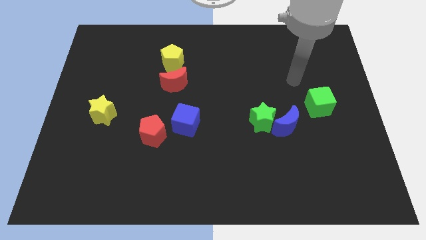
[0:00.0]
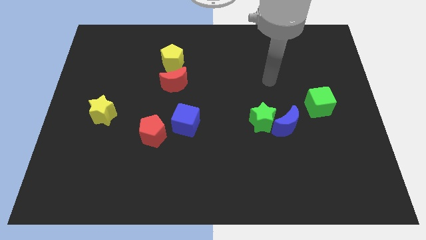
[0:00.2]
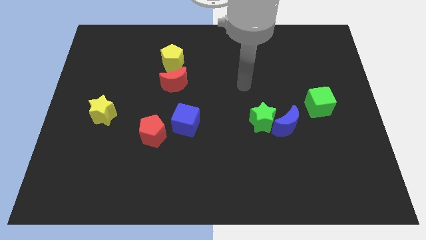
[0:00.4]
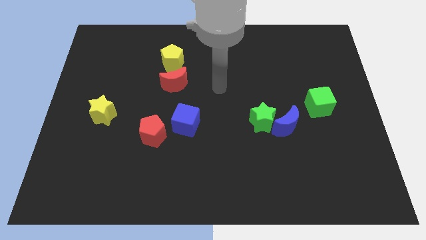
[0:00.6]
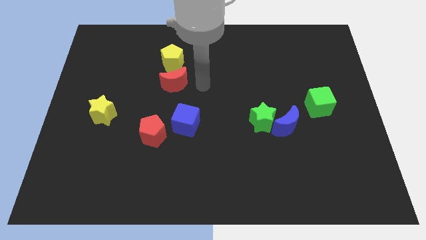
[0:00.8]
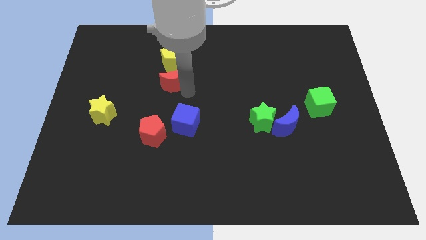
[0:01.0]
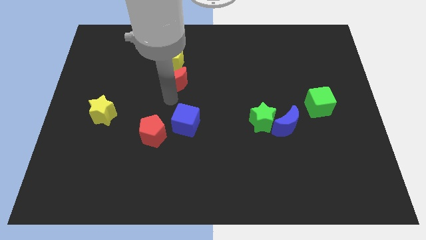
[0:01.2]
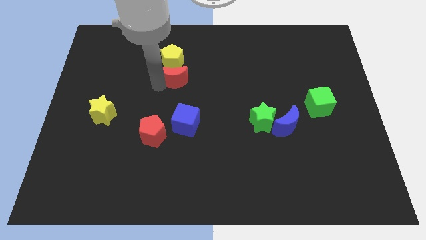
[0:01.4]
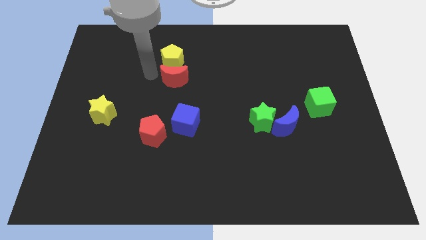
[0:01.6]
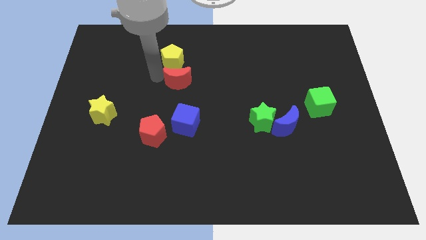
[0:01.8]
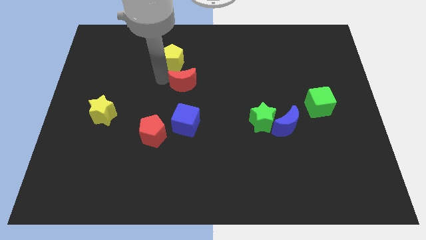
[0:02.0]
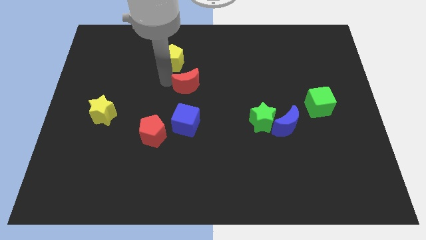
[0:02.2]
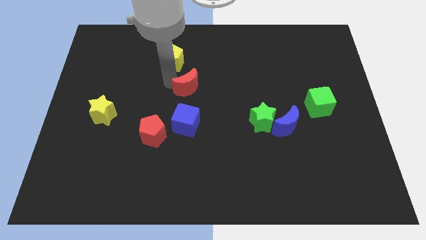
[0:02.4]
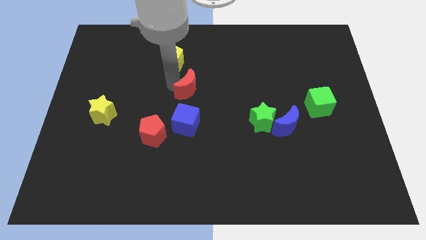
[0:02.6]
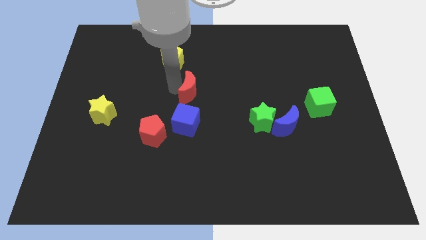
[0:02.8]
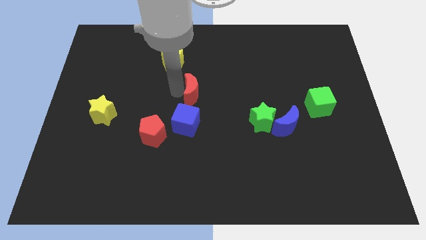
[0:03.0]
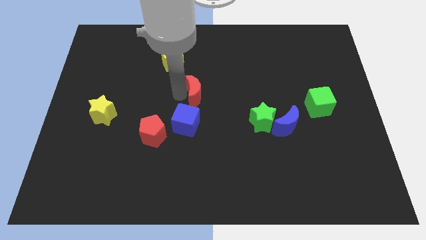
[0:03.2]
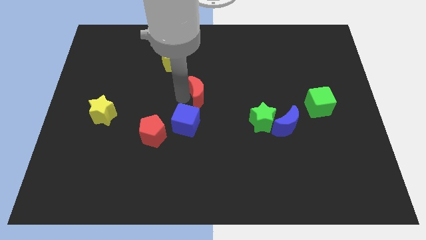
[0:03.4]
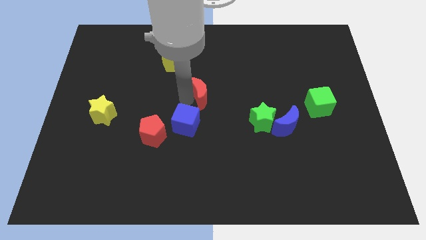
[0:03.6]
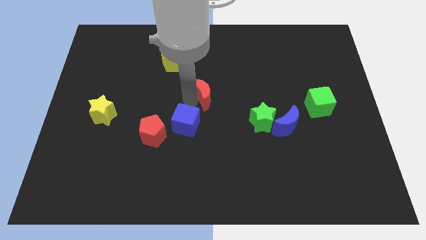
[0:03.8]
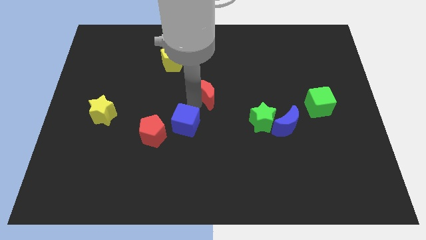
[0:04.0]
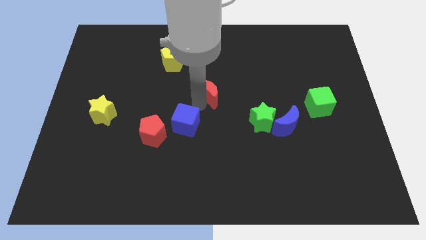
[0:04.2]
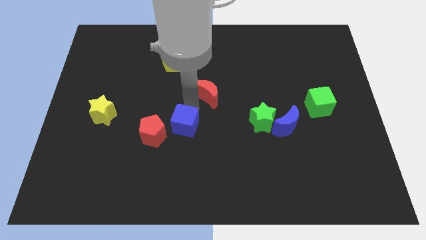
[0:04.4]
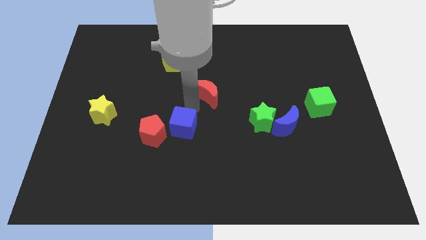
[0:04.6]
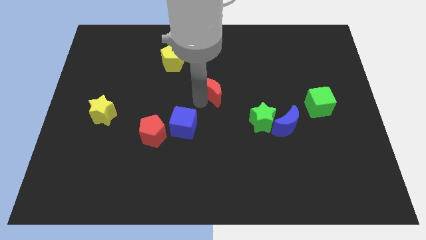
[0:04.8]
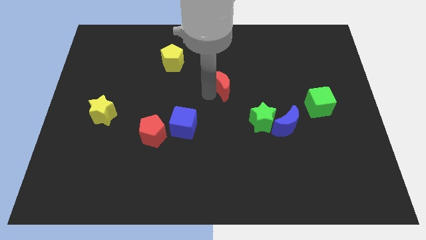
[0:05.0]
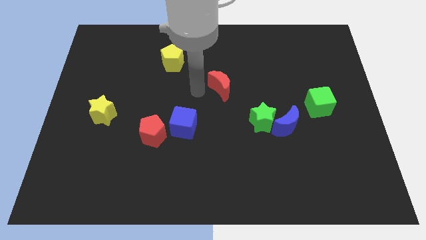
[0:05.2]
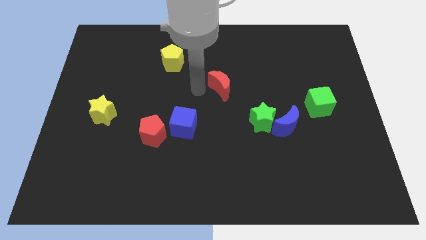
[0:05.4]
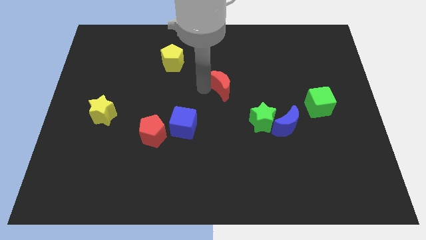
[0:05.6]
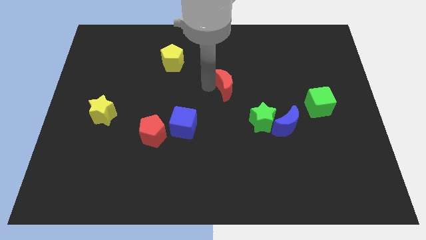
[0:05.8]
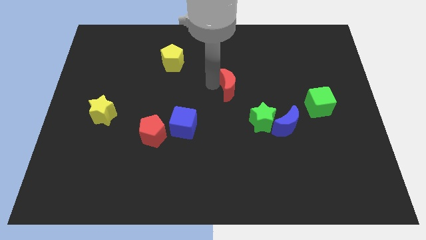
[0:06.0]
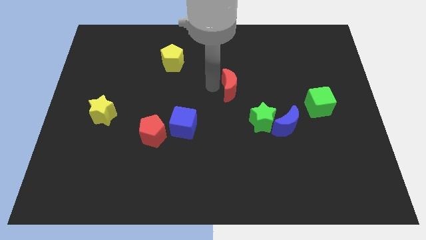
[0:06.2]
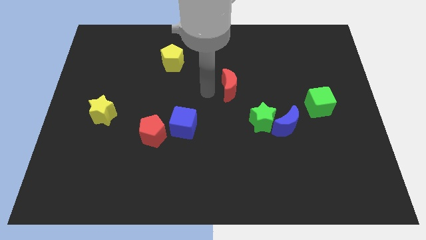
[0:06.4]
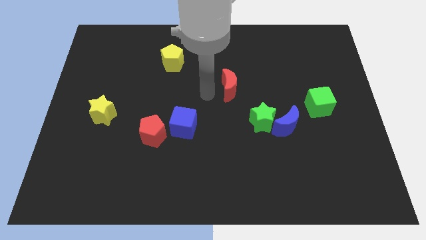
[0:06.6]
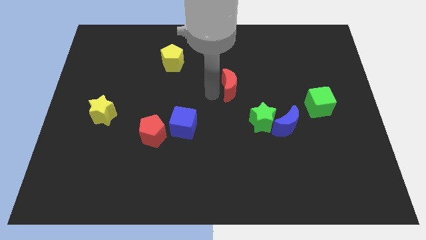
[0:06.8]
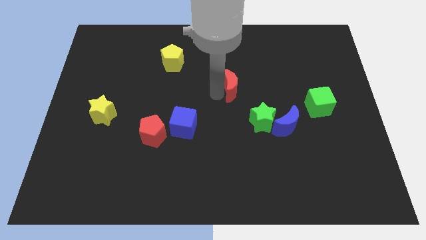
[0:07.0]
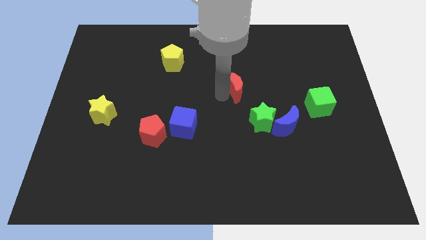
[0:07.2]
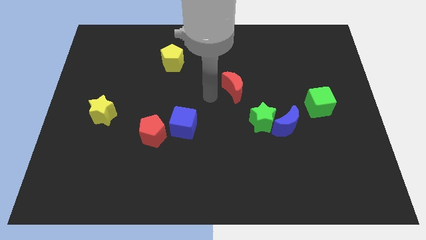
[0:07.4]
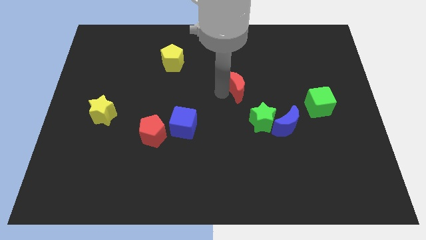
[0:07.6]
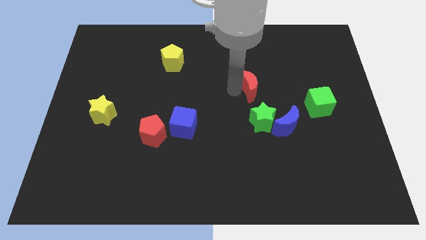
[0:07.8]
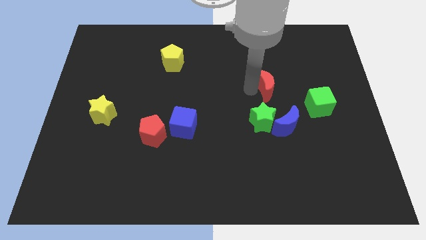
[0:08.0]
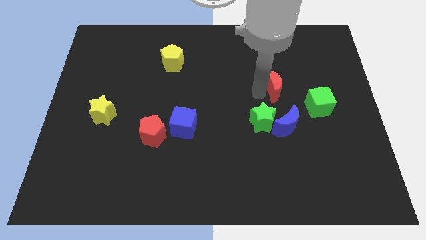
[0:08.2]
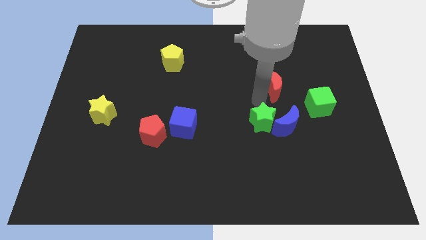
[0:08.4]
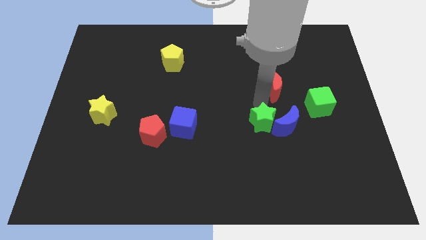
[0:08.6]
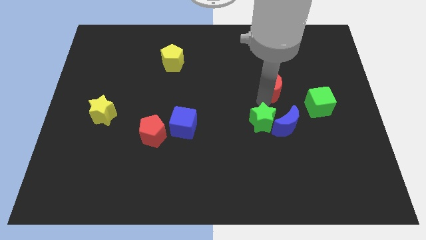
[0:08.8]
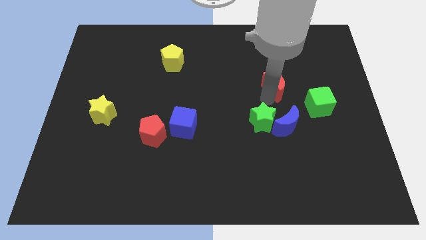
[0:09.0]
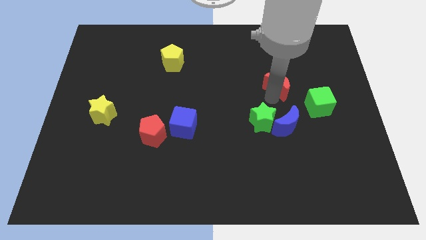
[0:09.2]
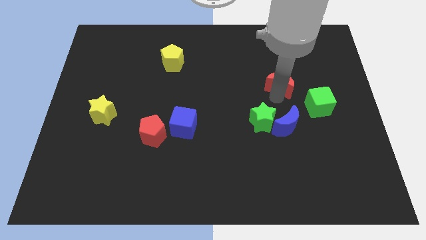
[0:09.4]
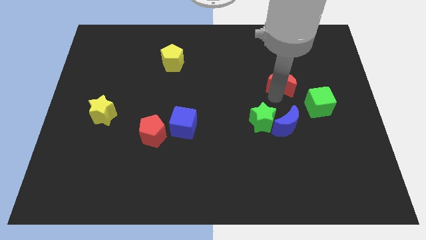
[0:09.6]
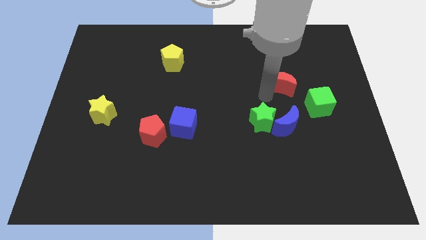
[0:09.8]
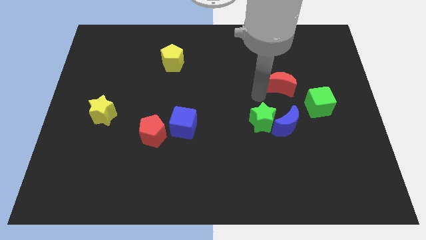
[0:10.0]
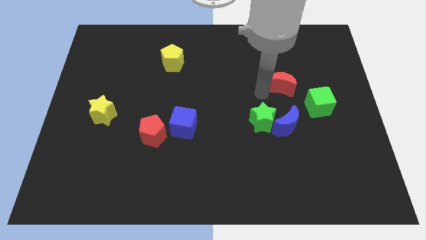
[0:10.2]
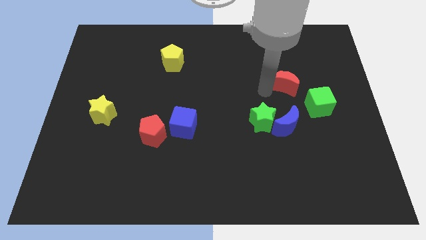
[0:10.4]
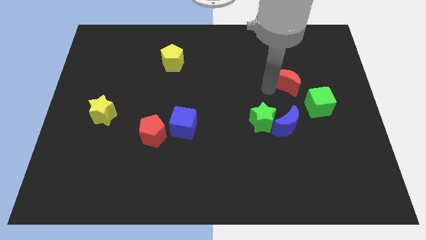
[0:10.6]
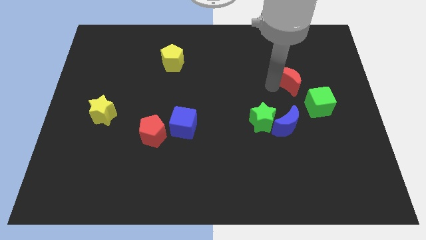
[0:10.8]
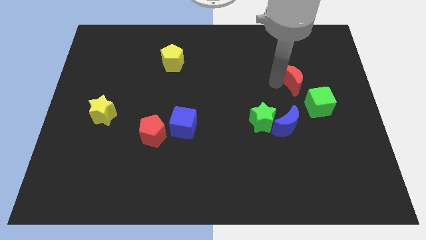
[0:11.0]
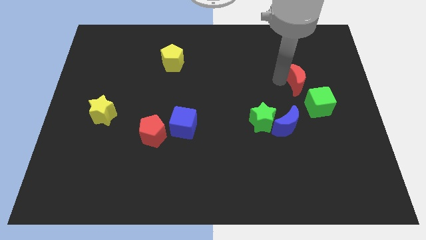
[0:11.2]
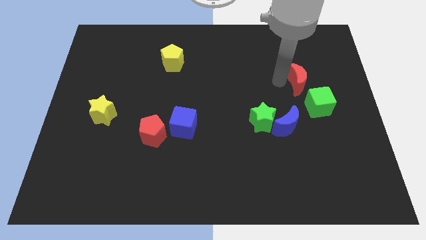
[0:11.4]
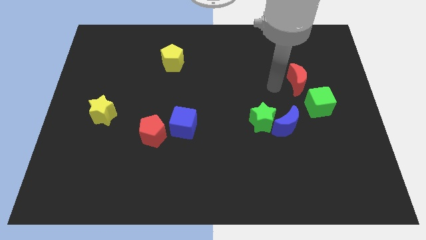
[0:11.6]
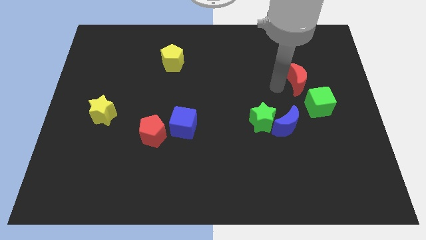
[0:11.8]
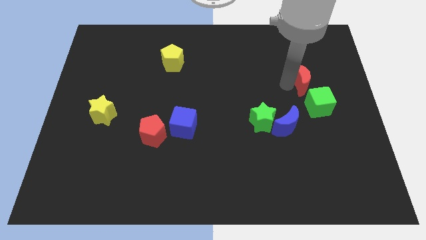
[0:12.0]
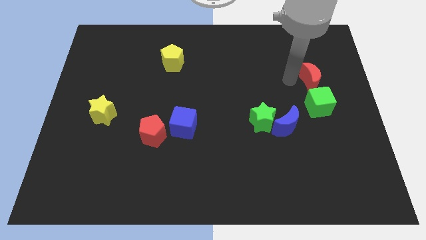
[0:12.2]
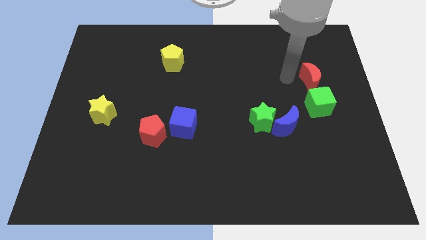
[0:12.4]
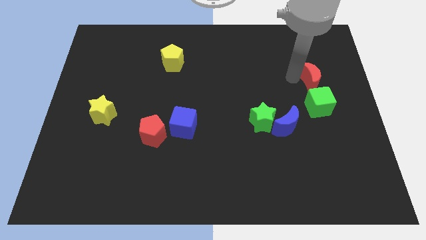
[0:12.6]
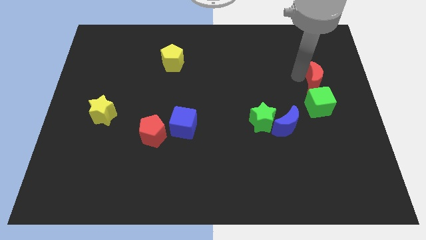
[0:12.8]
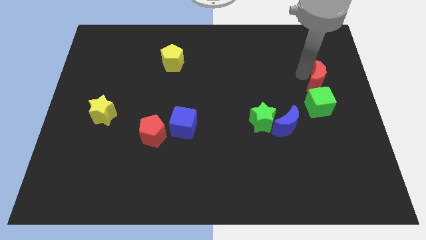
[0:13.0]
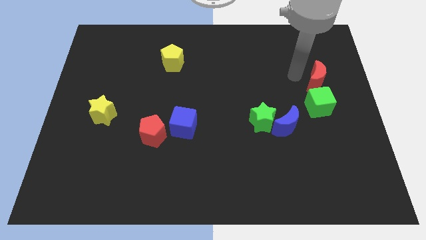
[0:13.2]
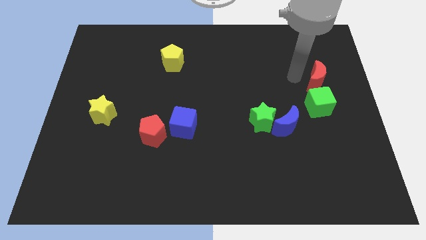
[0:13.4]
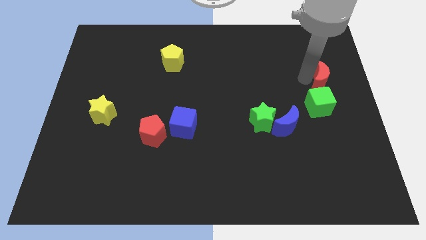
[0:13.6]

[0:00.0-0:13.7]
slide the red moon to the right side of the board
